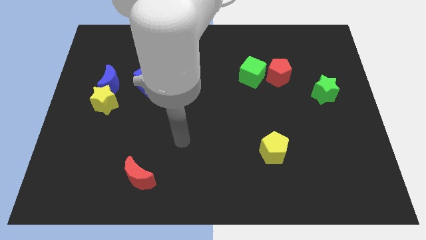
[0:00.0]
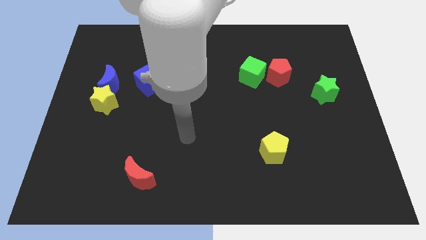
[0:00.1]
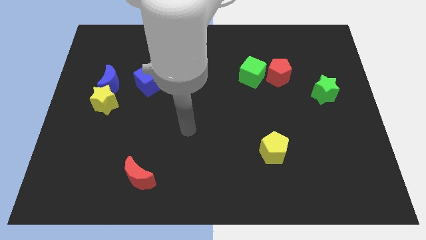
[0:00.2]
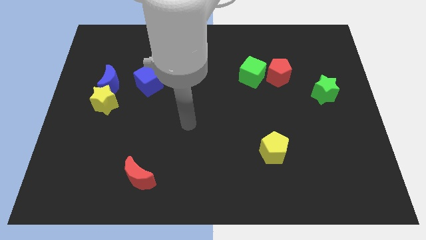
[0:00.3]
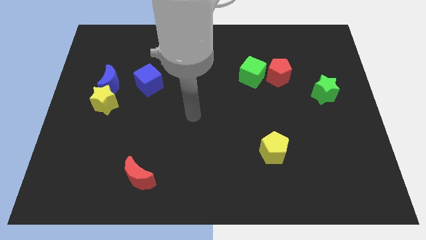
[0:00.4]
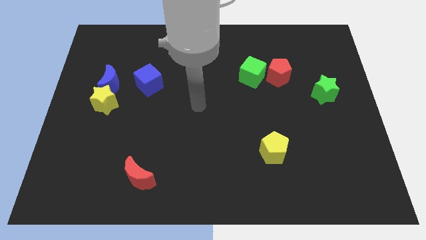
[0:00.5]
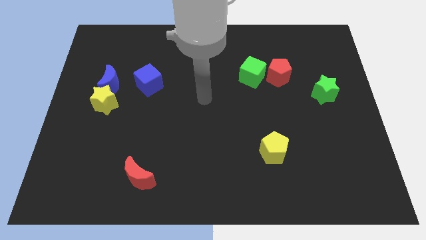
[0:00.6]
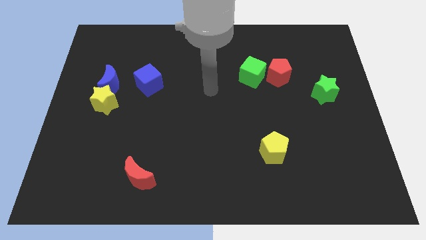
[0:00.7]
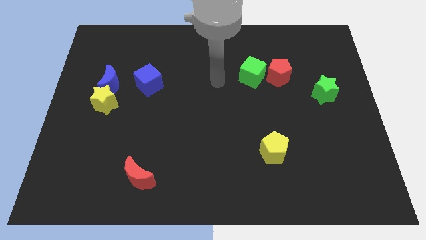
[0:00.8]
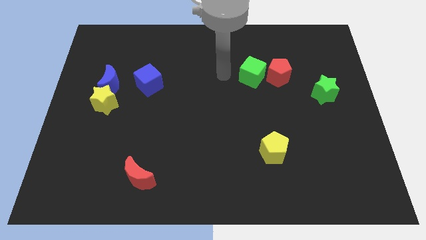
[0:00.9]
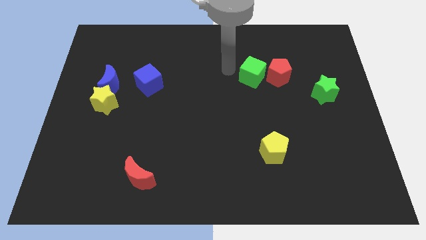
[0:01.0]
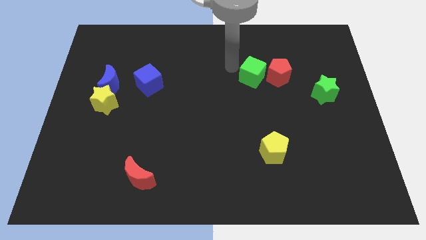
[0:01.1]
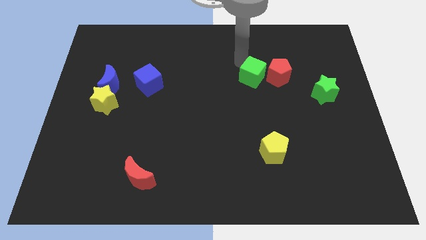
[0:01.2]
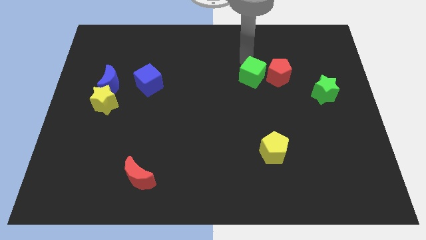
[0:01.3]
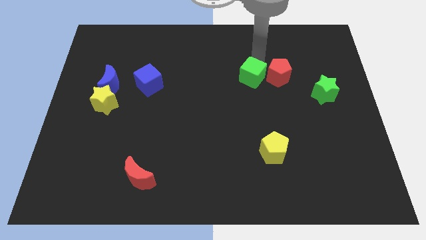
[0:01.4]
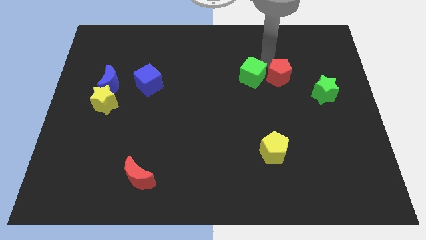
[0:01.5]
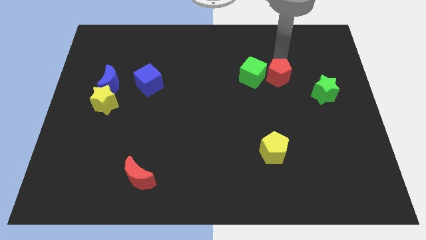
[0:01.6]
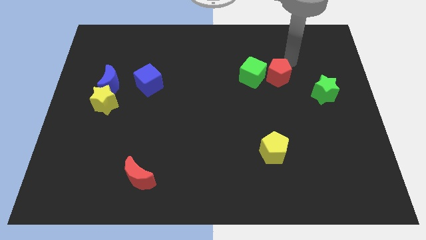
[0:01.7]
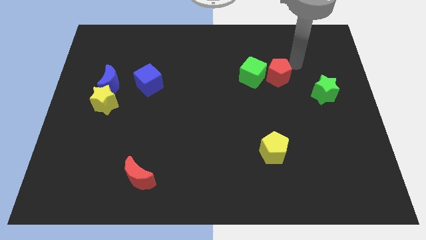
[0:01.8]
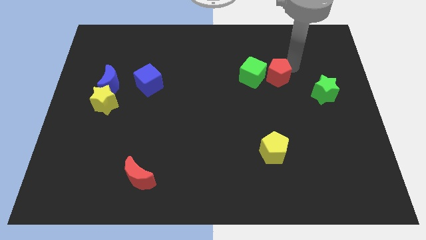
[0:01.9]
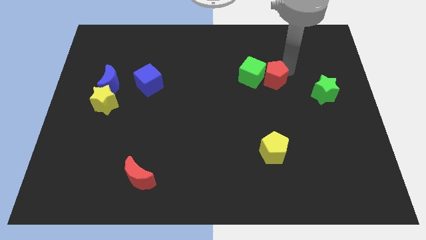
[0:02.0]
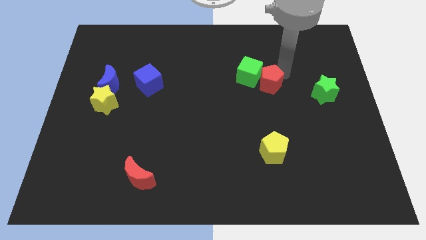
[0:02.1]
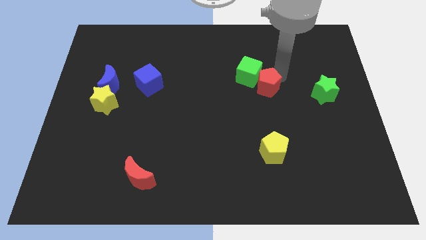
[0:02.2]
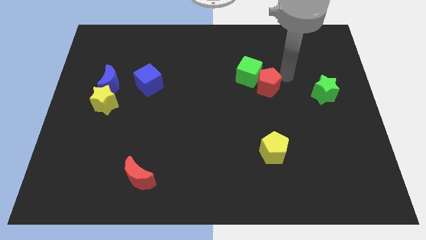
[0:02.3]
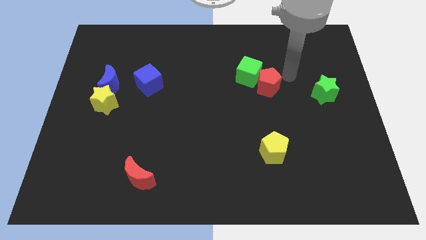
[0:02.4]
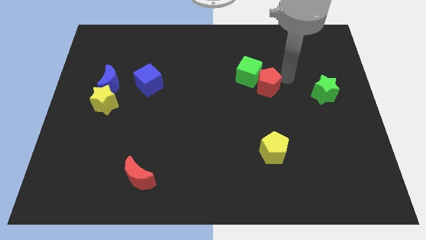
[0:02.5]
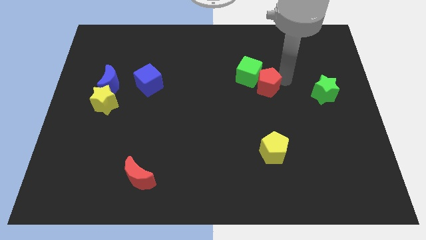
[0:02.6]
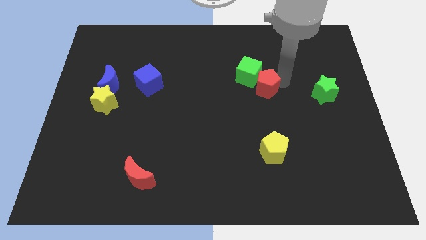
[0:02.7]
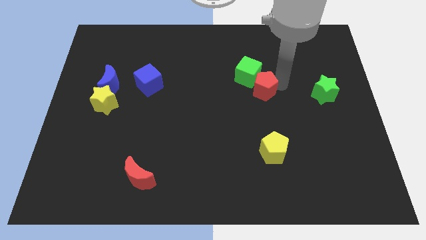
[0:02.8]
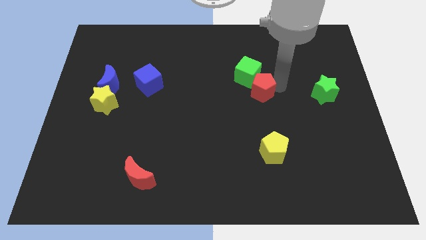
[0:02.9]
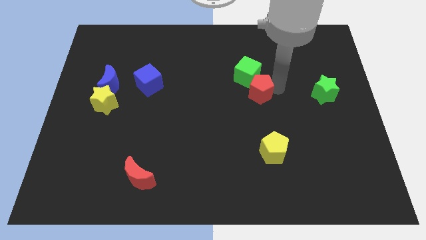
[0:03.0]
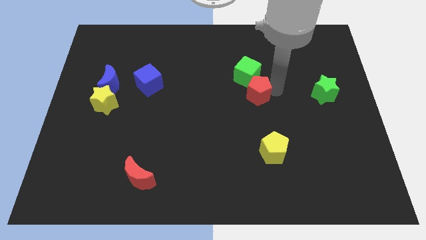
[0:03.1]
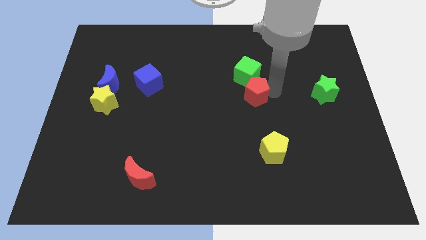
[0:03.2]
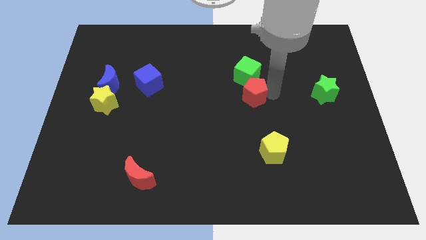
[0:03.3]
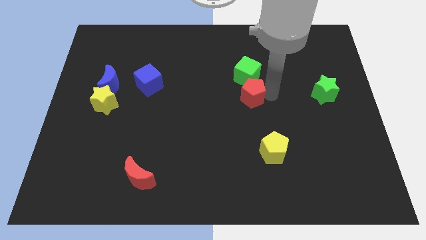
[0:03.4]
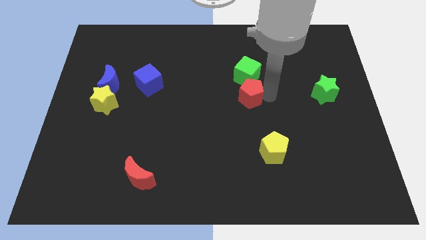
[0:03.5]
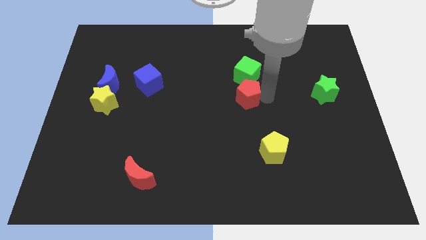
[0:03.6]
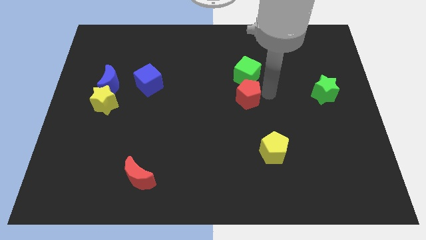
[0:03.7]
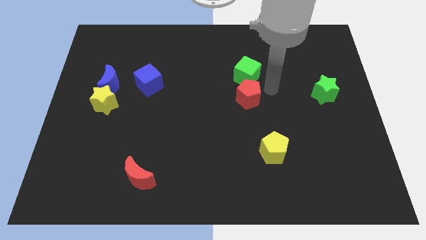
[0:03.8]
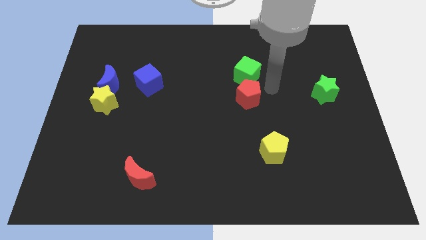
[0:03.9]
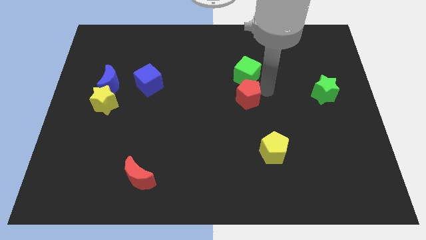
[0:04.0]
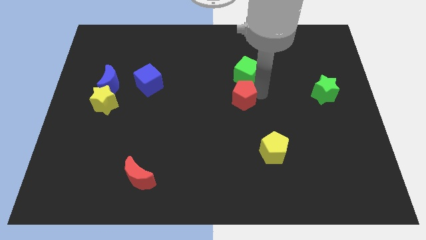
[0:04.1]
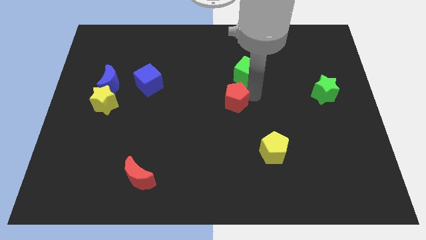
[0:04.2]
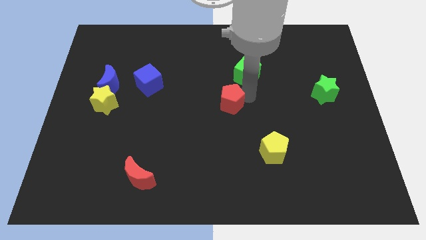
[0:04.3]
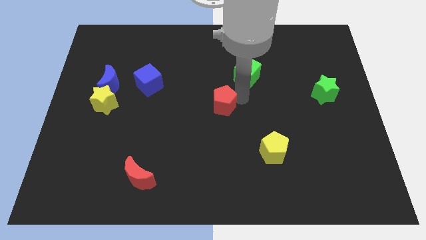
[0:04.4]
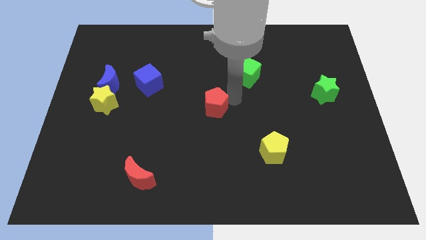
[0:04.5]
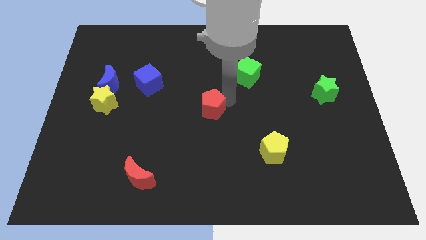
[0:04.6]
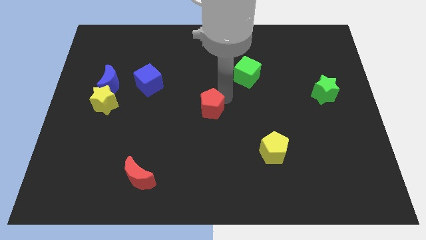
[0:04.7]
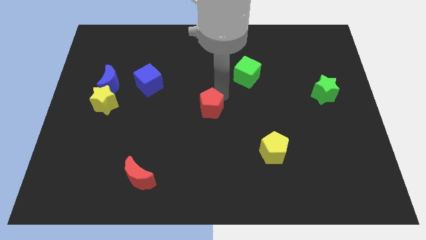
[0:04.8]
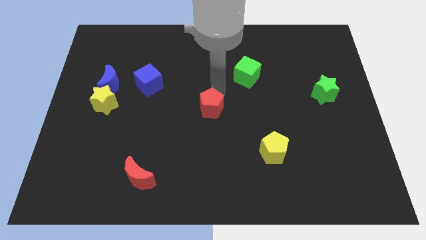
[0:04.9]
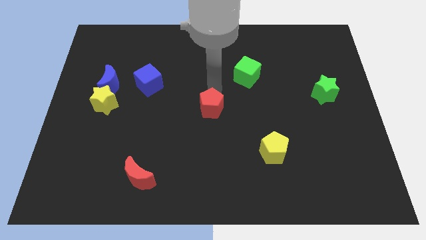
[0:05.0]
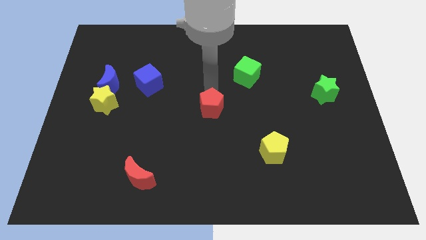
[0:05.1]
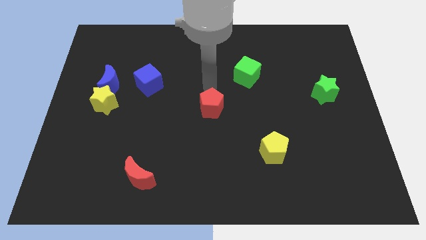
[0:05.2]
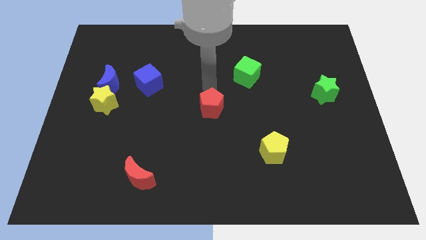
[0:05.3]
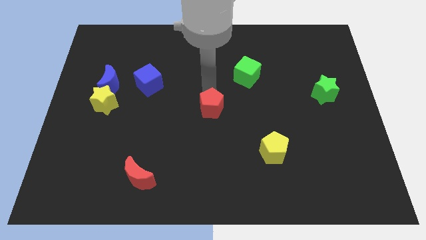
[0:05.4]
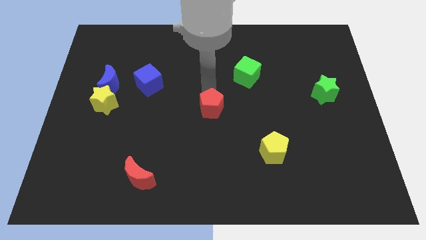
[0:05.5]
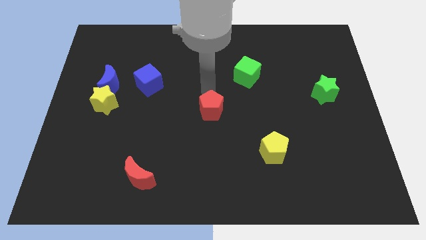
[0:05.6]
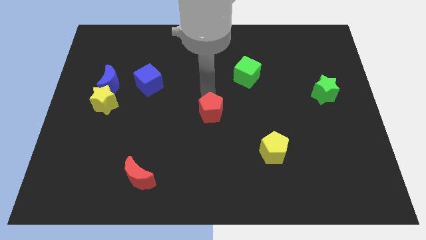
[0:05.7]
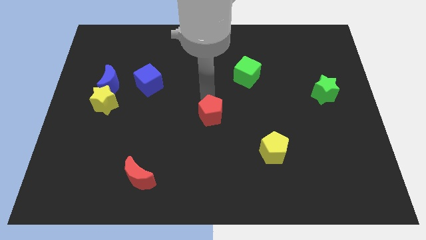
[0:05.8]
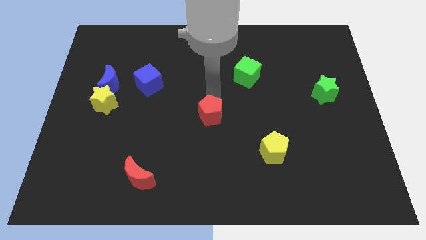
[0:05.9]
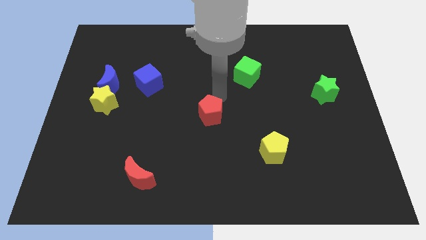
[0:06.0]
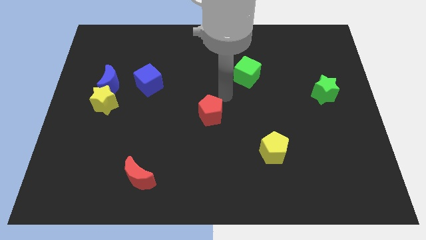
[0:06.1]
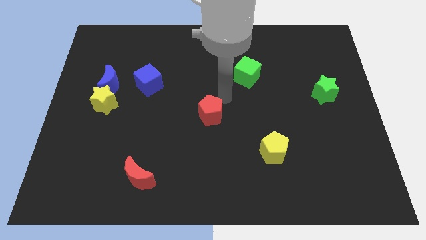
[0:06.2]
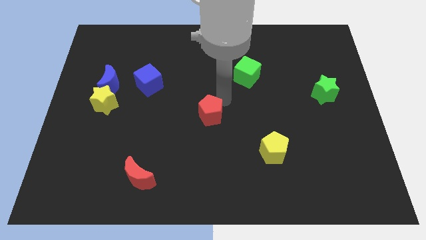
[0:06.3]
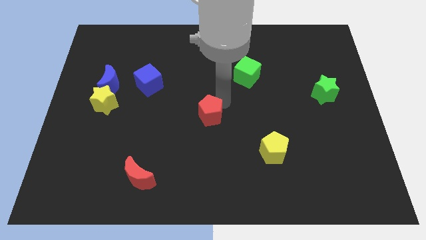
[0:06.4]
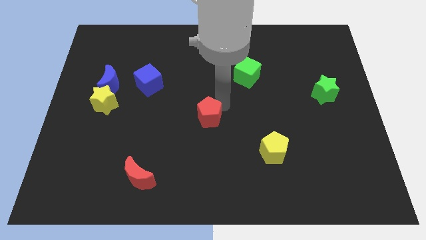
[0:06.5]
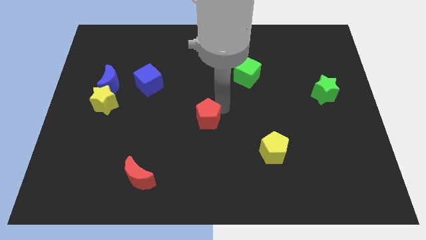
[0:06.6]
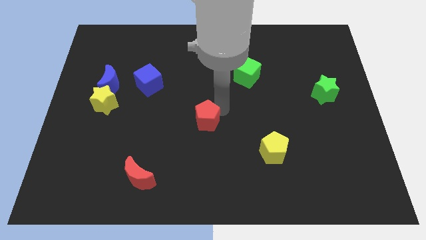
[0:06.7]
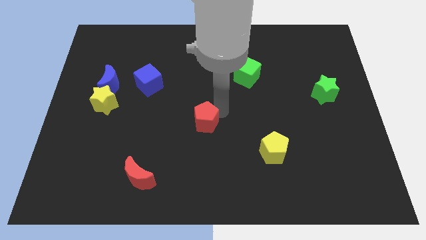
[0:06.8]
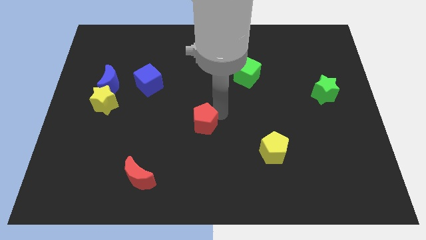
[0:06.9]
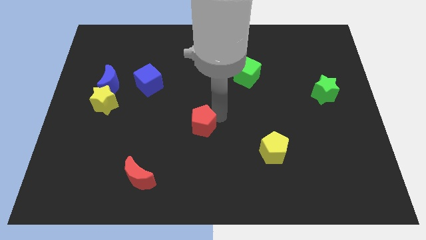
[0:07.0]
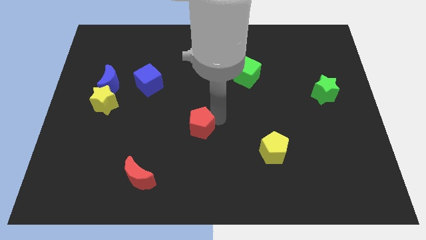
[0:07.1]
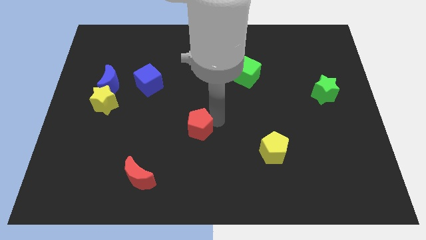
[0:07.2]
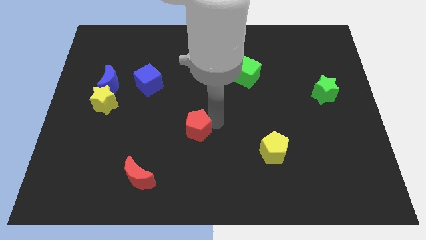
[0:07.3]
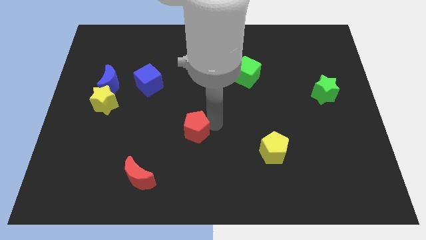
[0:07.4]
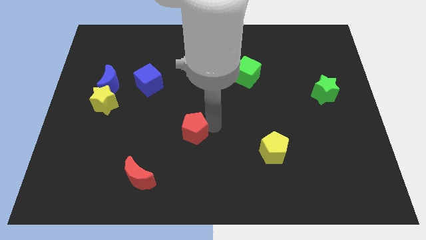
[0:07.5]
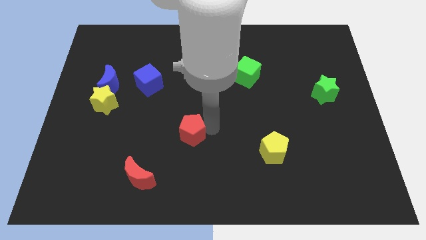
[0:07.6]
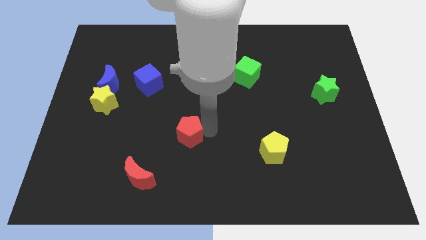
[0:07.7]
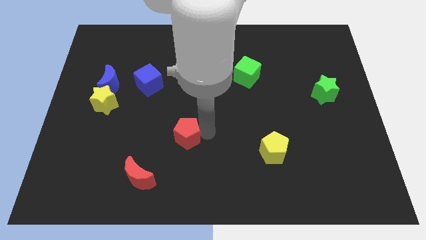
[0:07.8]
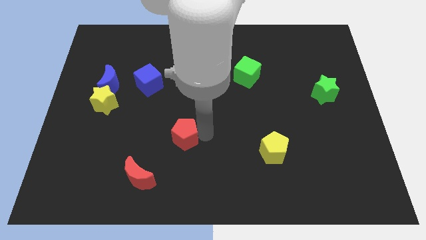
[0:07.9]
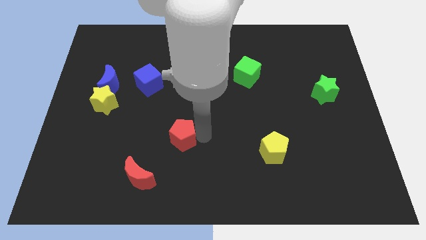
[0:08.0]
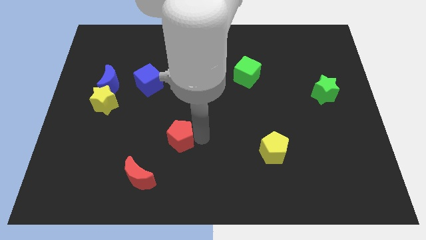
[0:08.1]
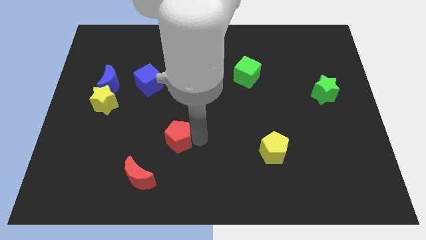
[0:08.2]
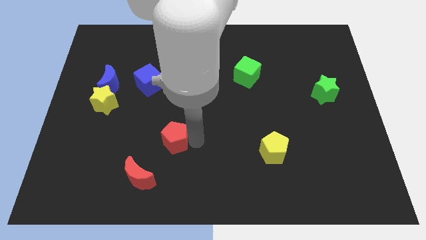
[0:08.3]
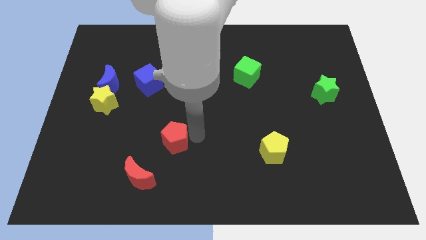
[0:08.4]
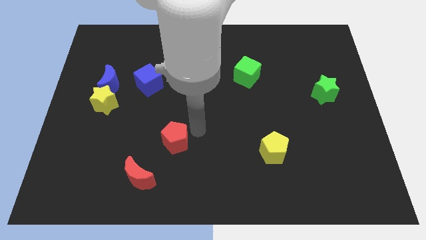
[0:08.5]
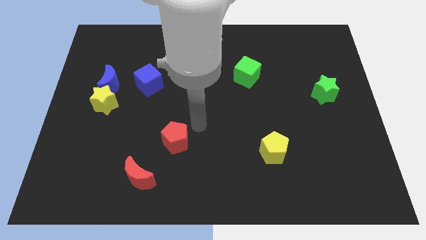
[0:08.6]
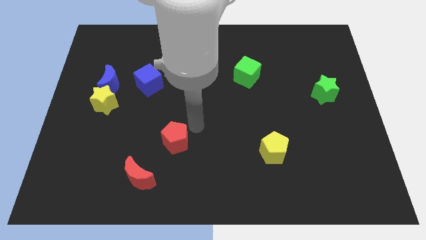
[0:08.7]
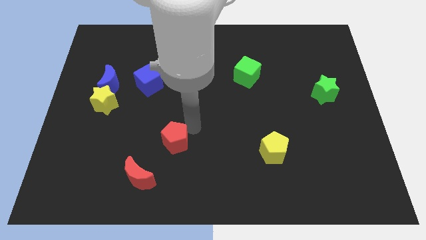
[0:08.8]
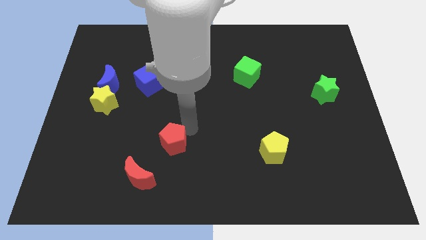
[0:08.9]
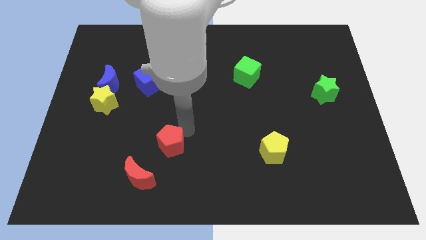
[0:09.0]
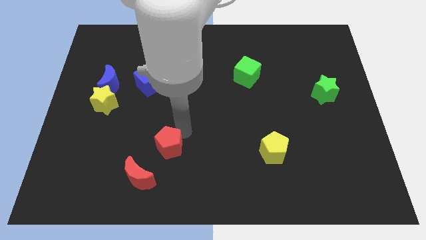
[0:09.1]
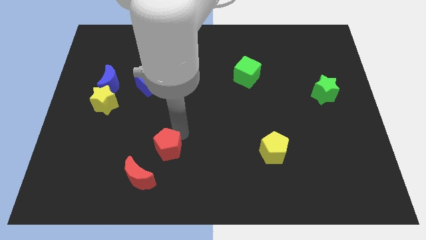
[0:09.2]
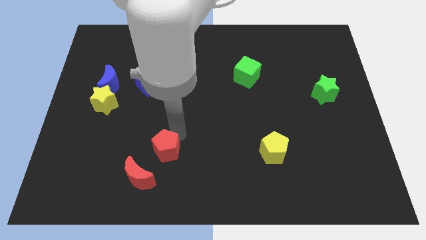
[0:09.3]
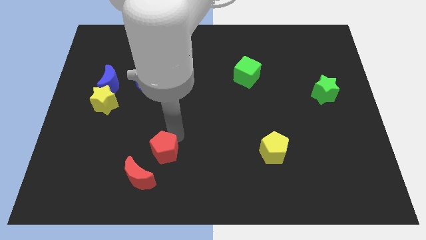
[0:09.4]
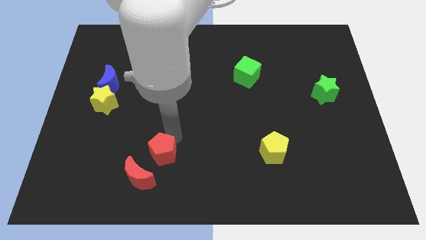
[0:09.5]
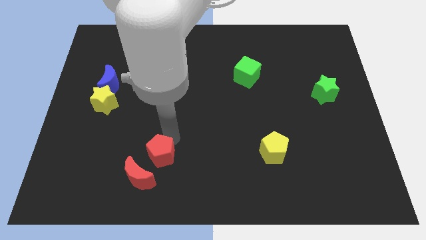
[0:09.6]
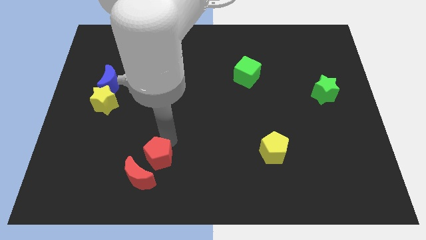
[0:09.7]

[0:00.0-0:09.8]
slide the red pentagon to the red moon
